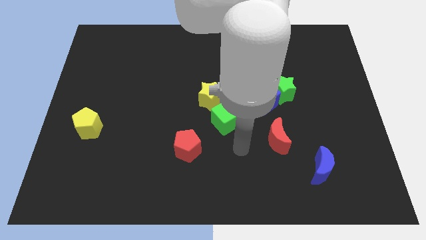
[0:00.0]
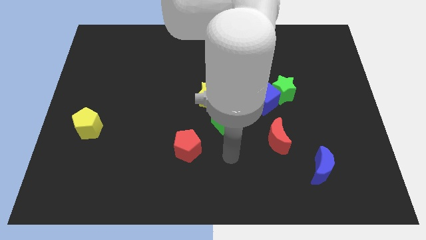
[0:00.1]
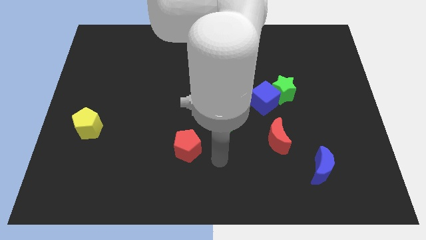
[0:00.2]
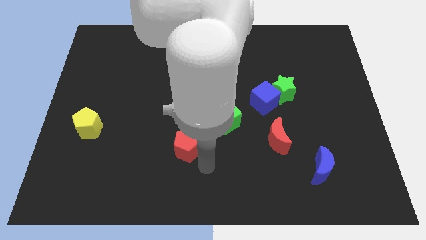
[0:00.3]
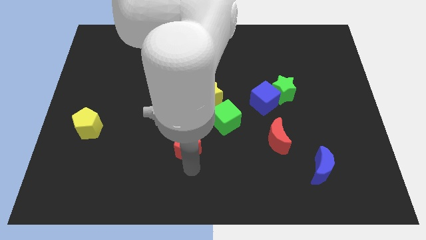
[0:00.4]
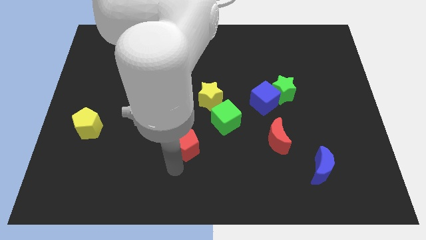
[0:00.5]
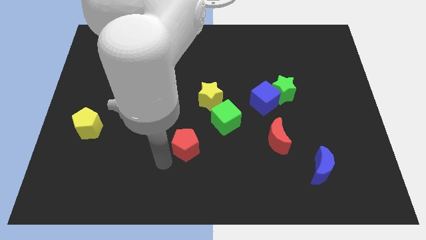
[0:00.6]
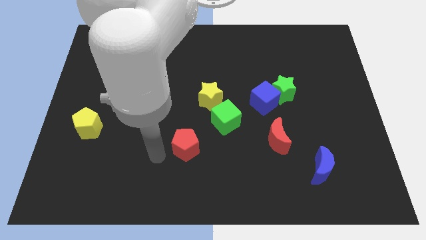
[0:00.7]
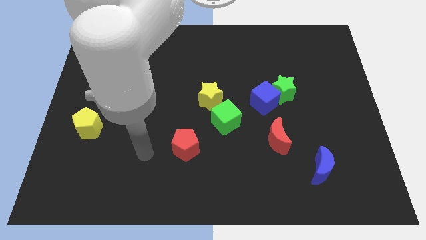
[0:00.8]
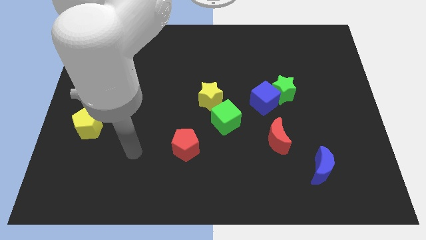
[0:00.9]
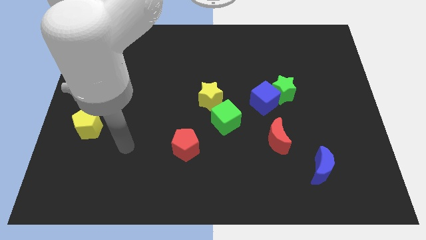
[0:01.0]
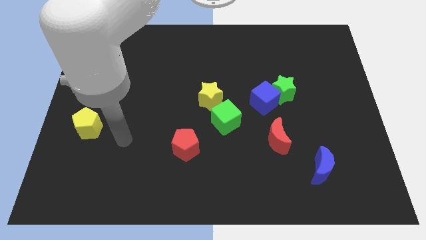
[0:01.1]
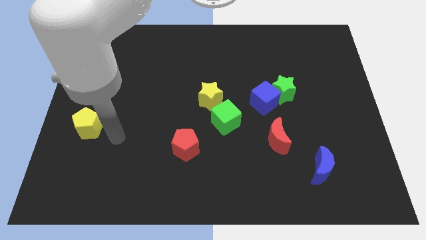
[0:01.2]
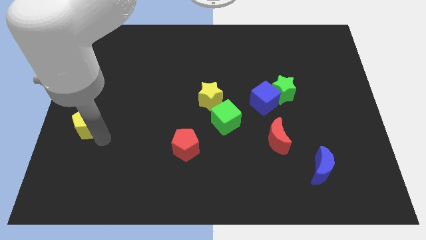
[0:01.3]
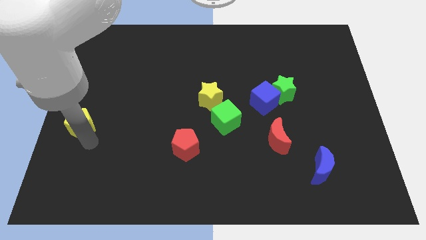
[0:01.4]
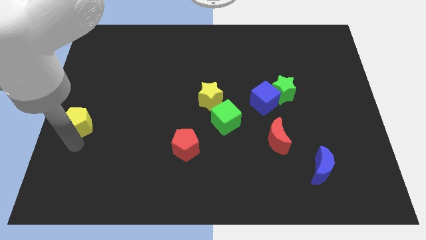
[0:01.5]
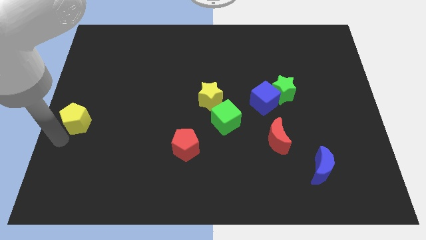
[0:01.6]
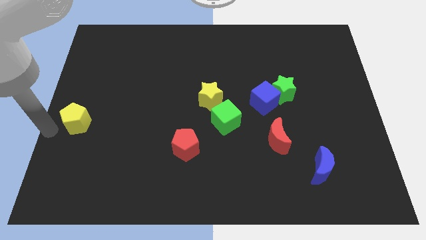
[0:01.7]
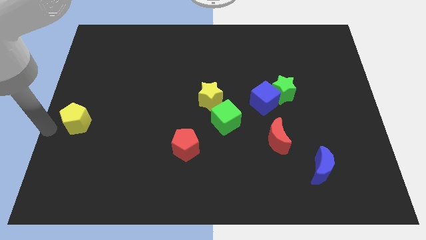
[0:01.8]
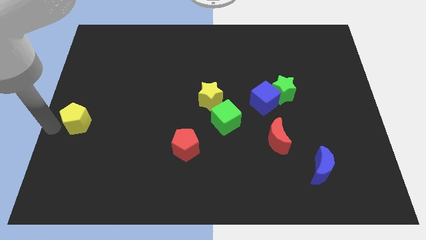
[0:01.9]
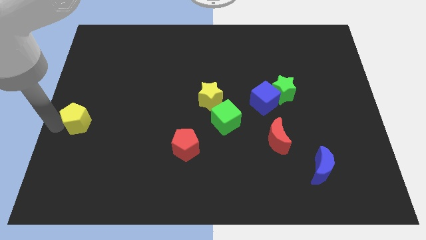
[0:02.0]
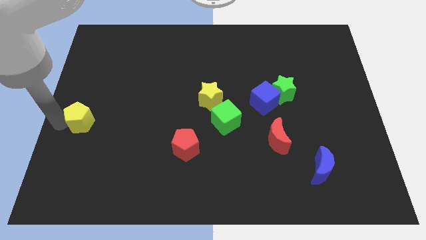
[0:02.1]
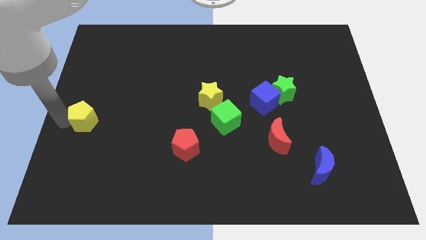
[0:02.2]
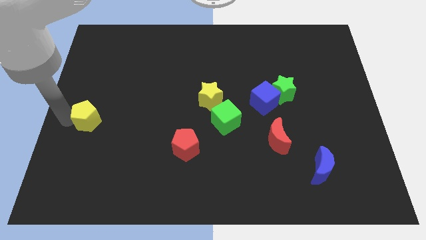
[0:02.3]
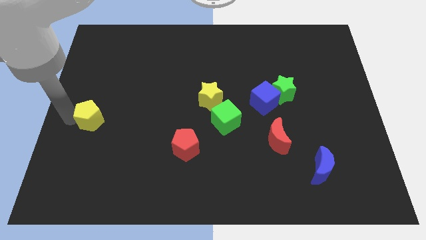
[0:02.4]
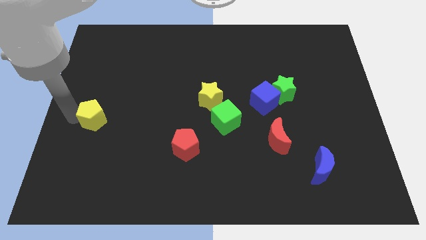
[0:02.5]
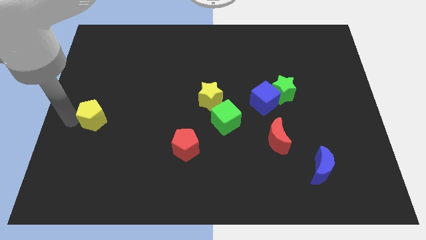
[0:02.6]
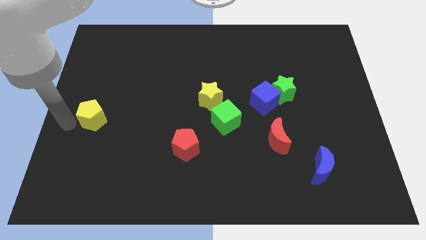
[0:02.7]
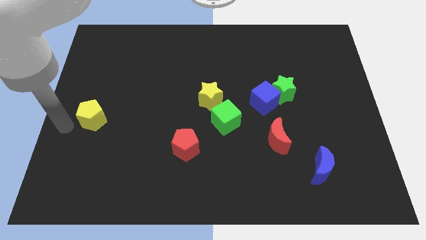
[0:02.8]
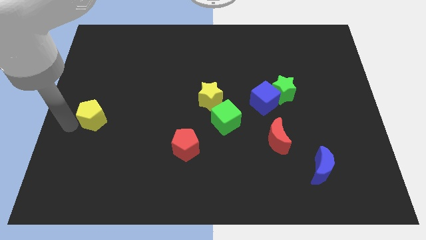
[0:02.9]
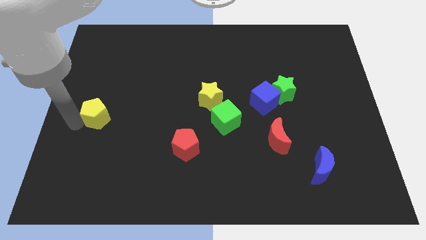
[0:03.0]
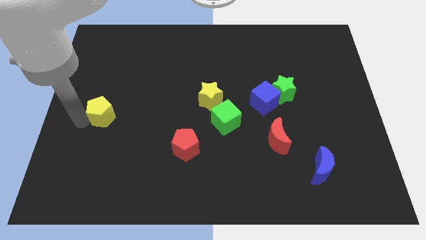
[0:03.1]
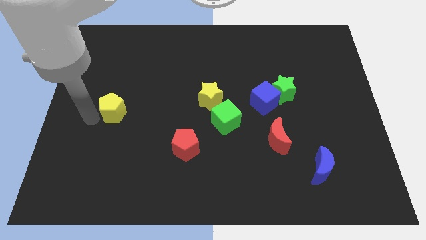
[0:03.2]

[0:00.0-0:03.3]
push the yellow pentagon diagonally upwards and to the right a bit

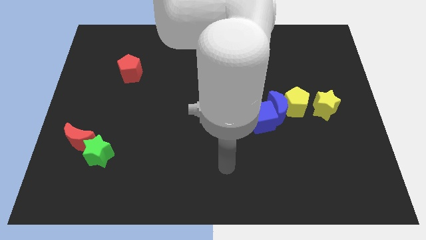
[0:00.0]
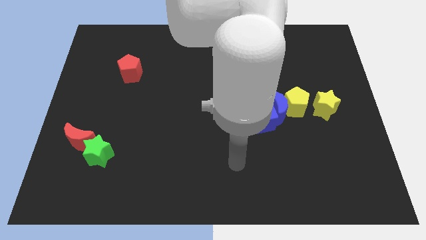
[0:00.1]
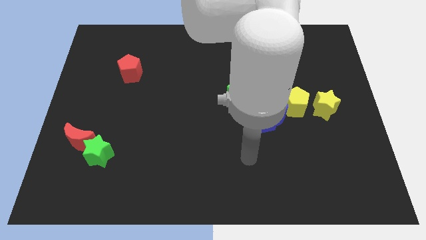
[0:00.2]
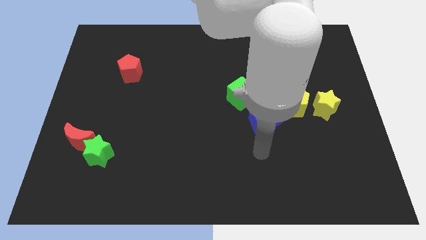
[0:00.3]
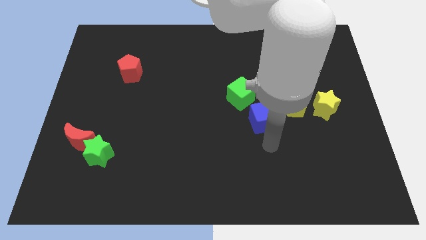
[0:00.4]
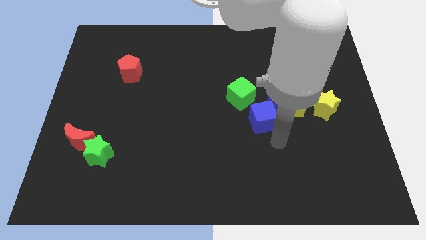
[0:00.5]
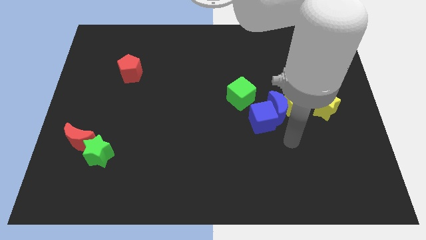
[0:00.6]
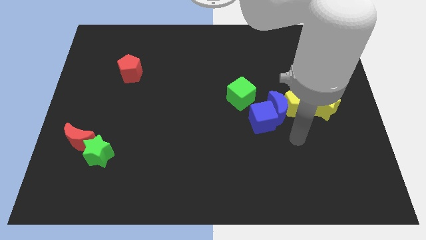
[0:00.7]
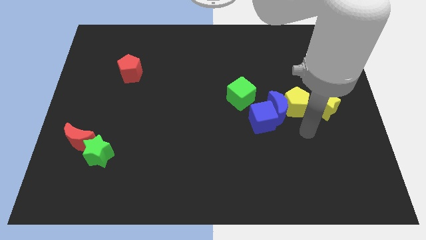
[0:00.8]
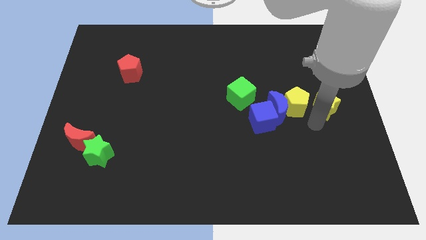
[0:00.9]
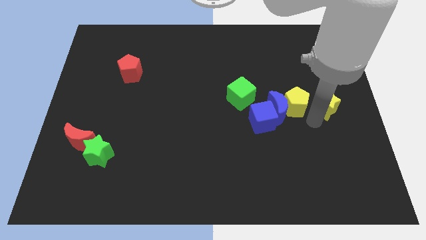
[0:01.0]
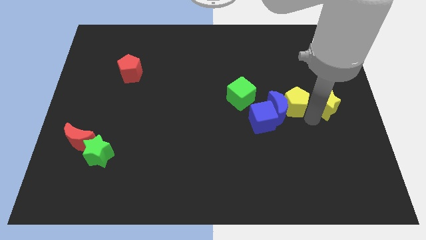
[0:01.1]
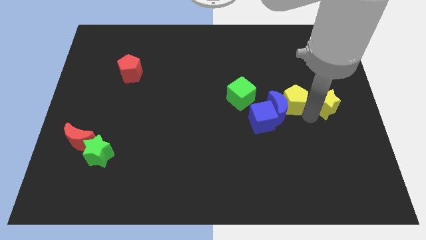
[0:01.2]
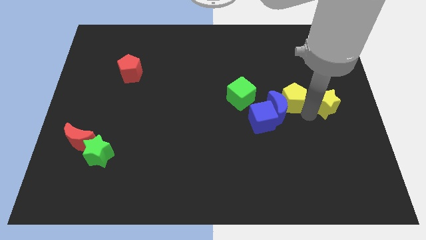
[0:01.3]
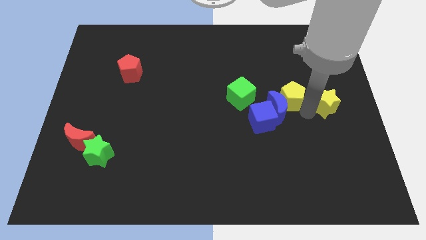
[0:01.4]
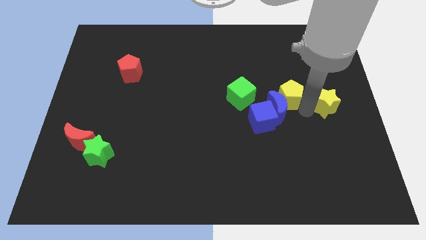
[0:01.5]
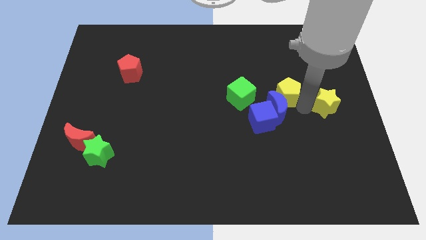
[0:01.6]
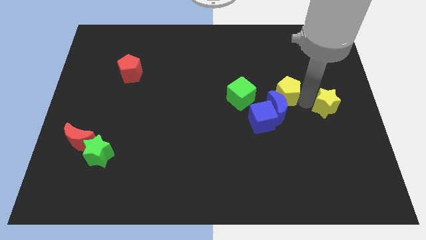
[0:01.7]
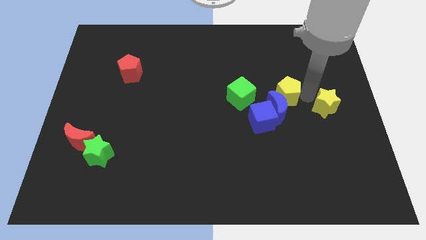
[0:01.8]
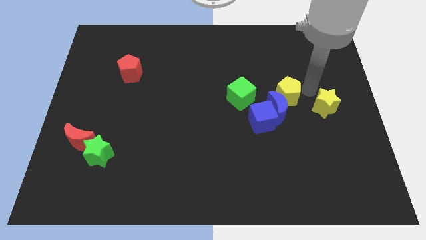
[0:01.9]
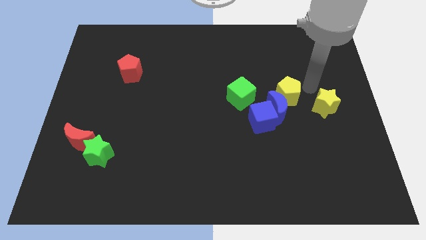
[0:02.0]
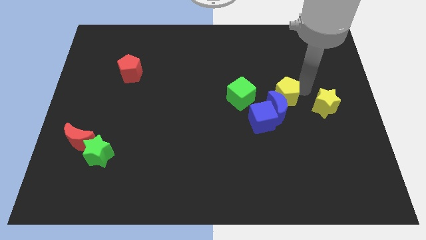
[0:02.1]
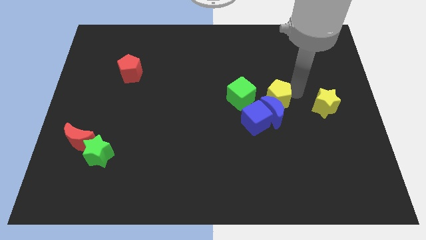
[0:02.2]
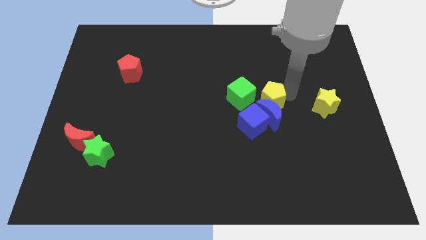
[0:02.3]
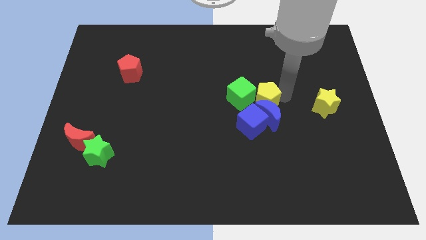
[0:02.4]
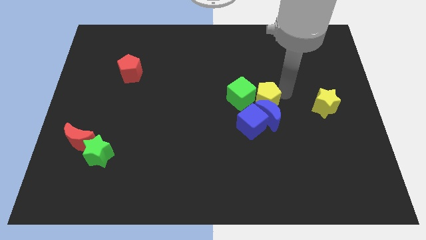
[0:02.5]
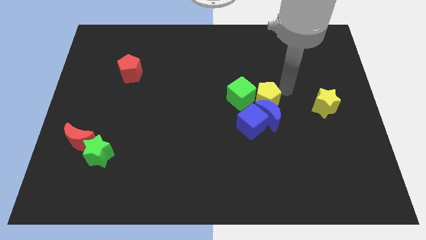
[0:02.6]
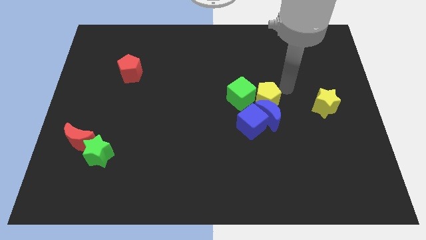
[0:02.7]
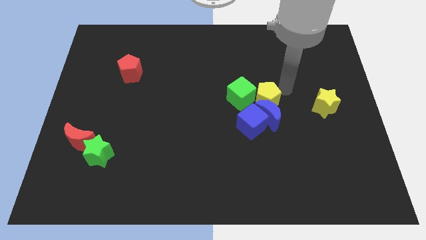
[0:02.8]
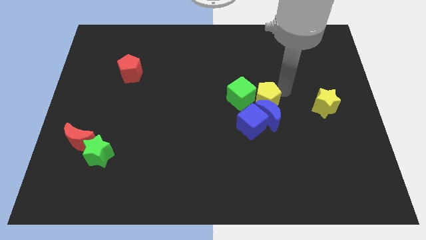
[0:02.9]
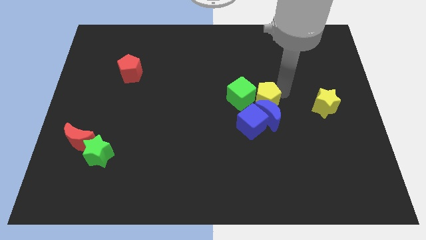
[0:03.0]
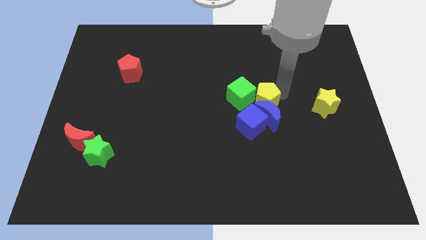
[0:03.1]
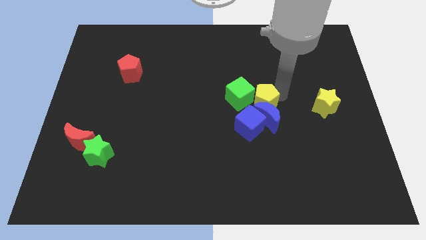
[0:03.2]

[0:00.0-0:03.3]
slightly move the yellow pentagon left

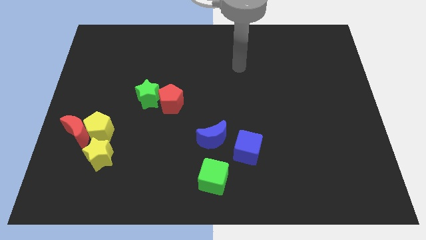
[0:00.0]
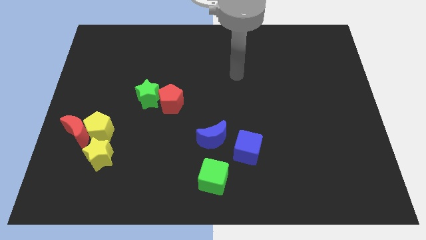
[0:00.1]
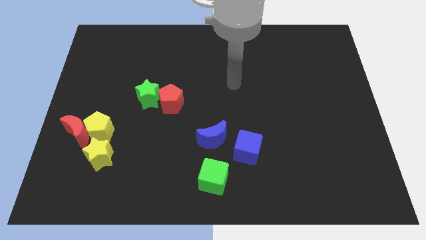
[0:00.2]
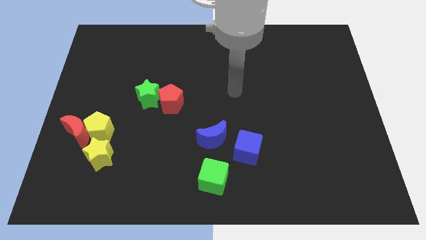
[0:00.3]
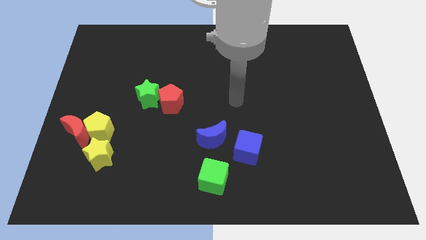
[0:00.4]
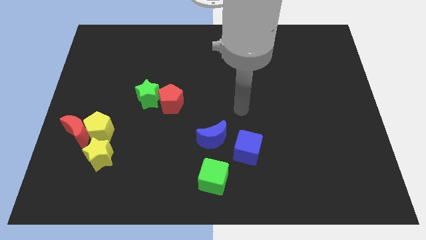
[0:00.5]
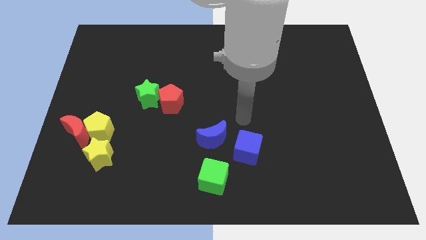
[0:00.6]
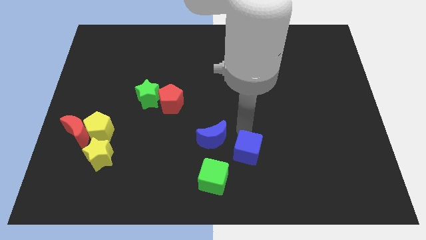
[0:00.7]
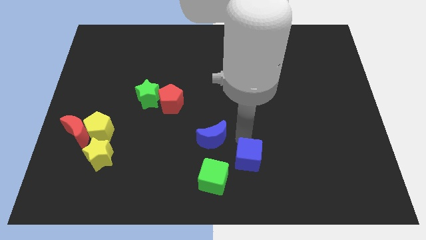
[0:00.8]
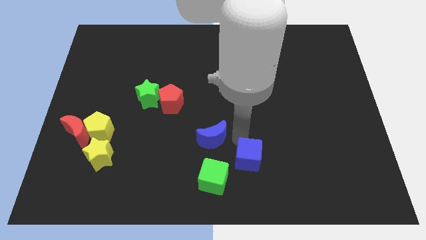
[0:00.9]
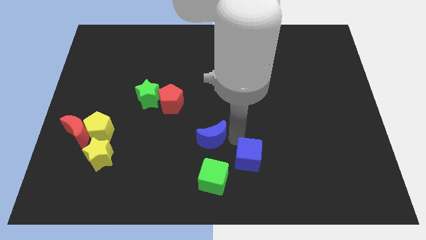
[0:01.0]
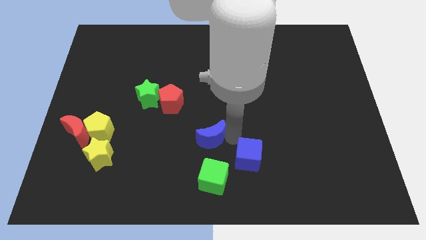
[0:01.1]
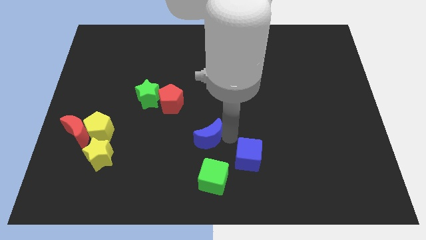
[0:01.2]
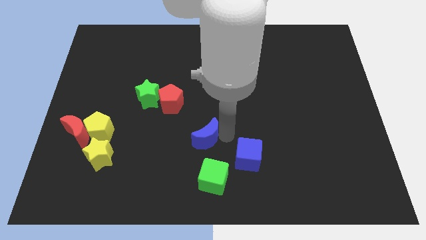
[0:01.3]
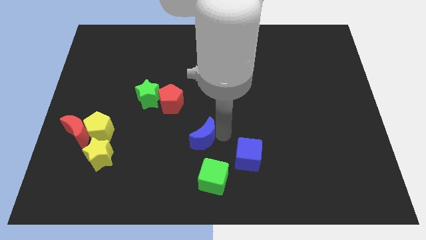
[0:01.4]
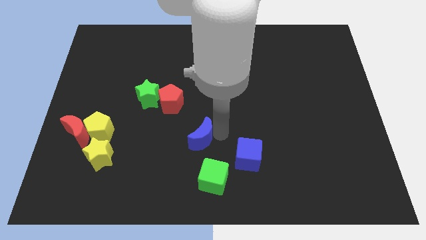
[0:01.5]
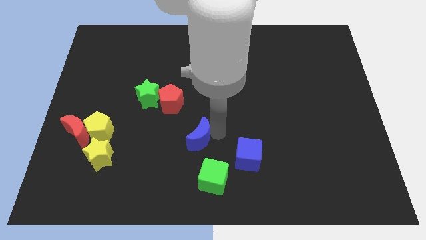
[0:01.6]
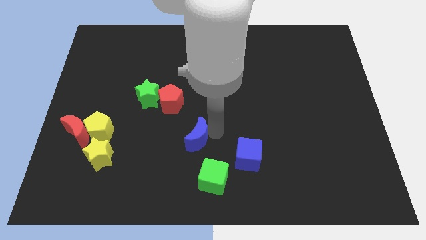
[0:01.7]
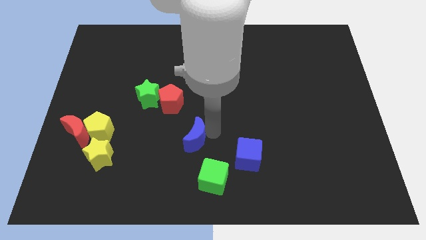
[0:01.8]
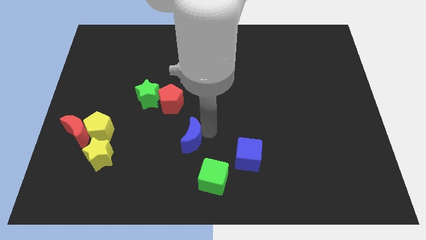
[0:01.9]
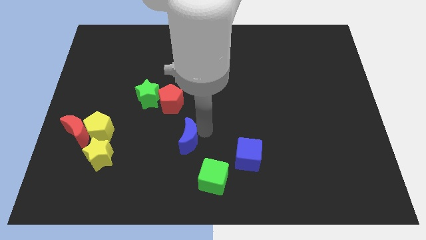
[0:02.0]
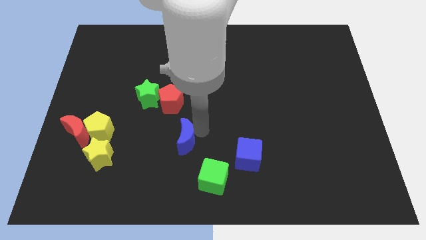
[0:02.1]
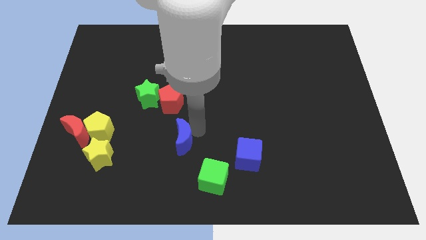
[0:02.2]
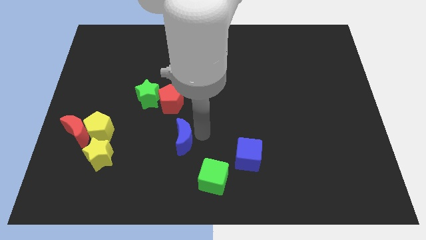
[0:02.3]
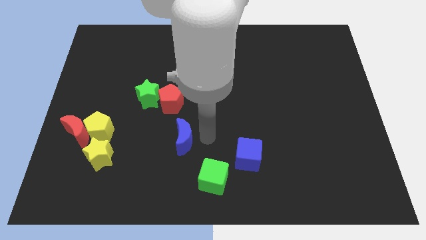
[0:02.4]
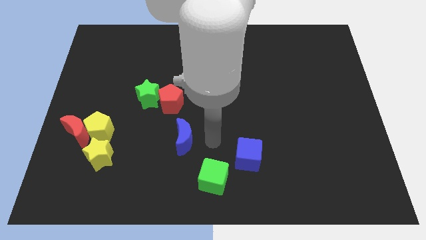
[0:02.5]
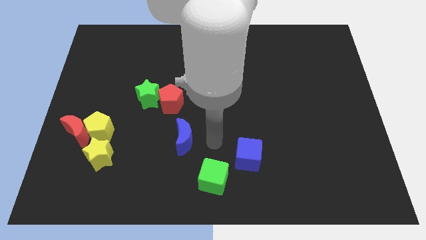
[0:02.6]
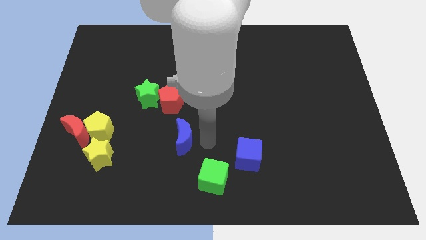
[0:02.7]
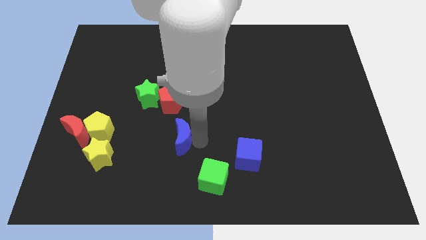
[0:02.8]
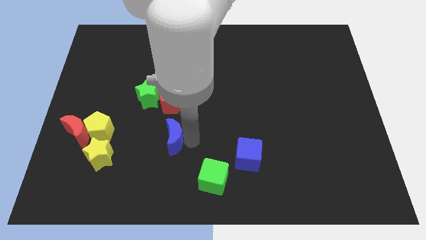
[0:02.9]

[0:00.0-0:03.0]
move the blue moon to the left a little bit
